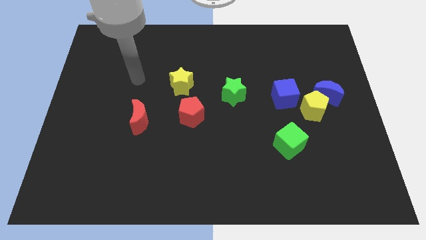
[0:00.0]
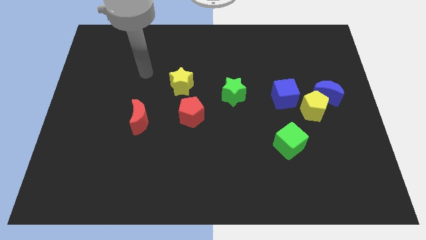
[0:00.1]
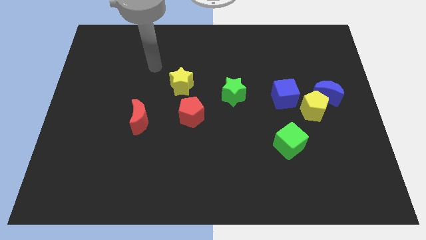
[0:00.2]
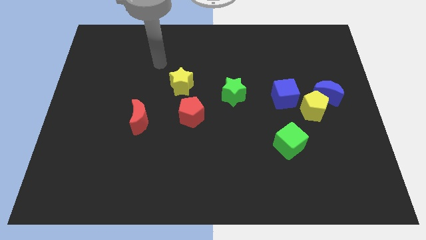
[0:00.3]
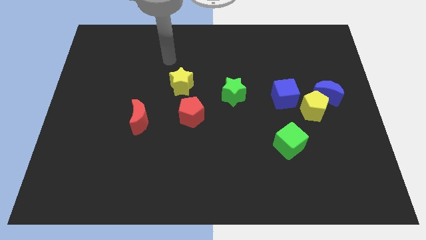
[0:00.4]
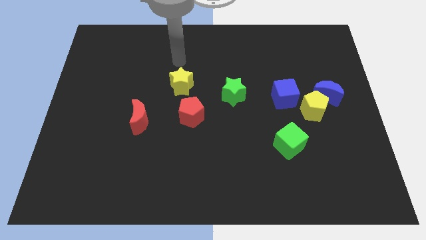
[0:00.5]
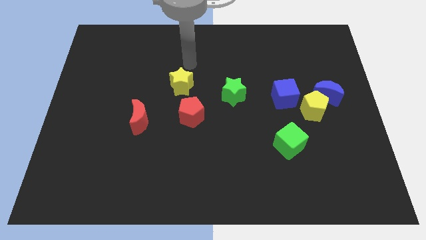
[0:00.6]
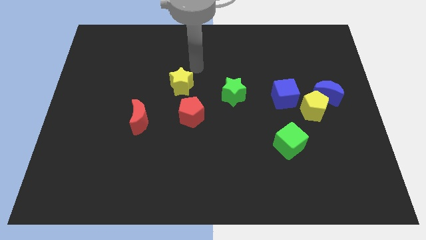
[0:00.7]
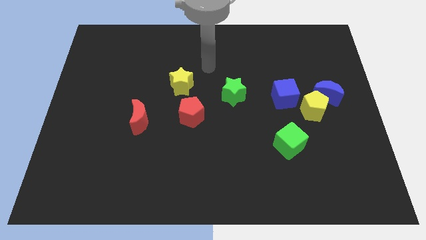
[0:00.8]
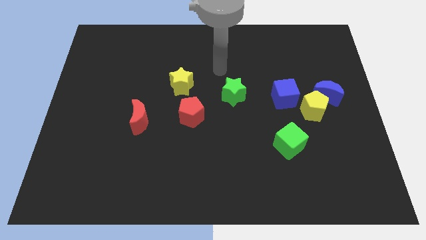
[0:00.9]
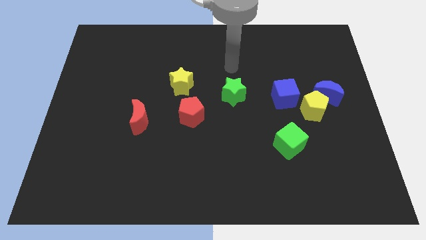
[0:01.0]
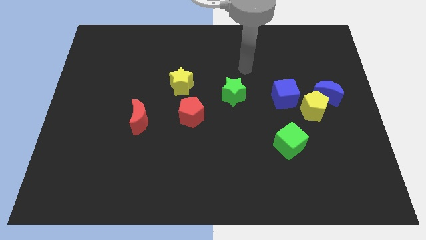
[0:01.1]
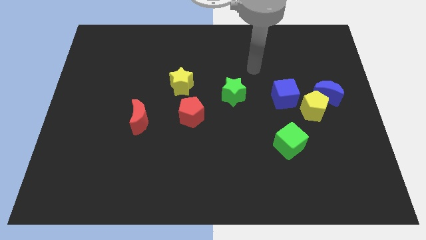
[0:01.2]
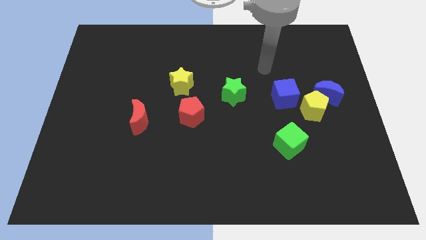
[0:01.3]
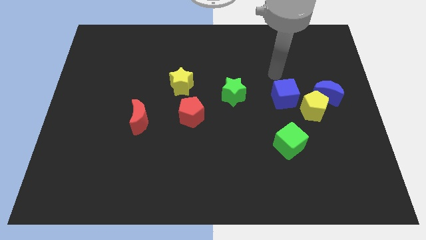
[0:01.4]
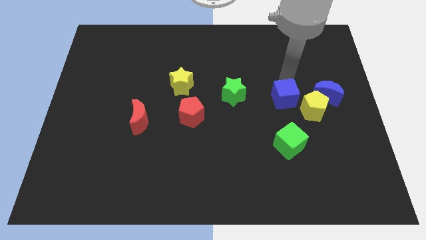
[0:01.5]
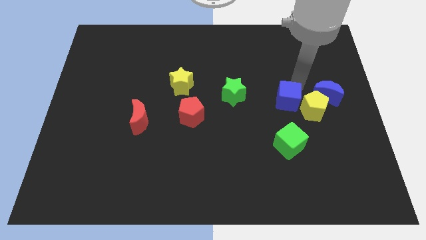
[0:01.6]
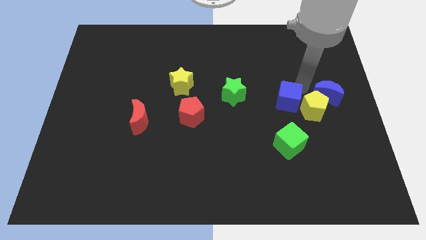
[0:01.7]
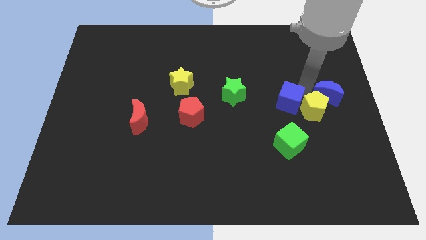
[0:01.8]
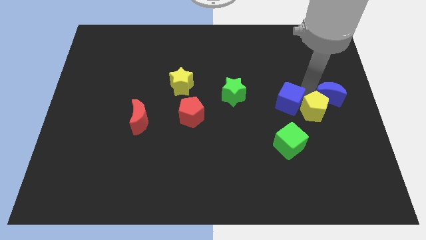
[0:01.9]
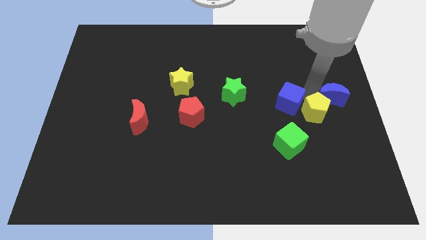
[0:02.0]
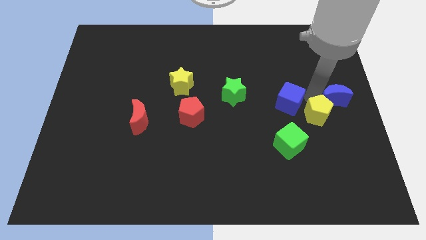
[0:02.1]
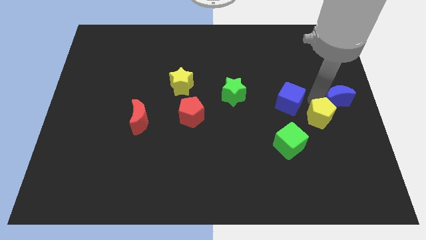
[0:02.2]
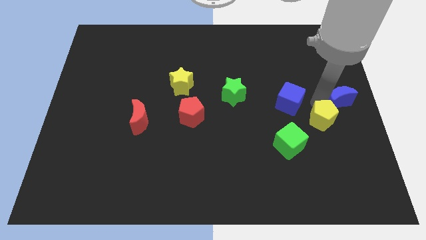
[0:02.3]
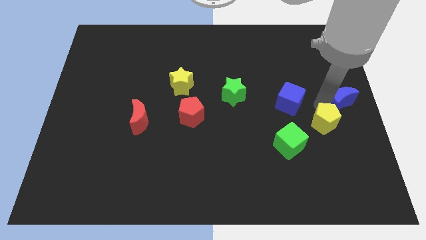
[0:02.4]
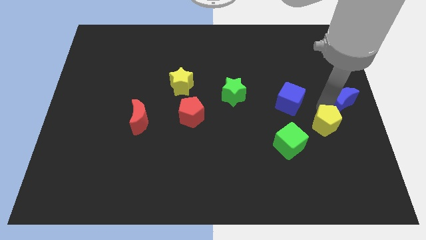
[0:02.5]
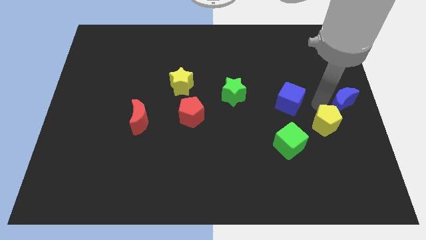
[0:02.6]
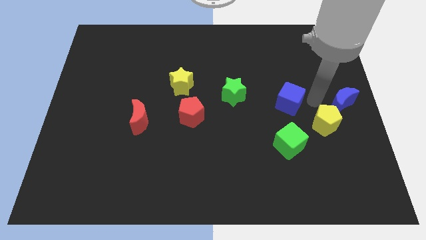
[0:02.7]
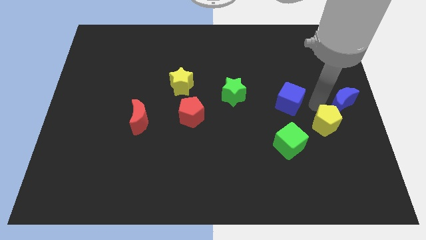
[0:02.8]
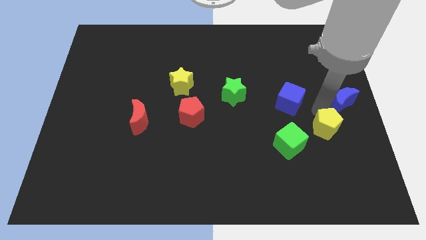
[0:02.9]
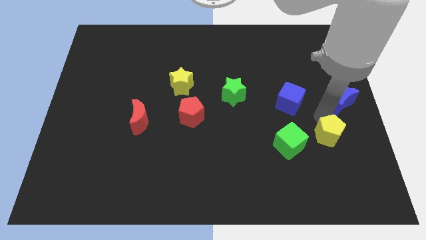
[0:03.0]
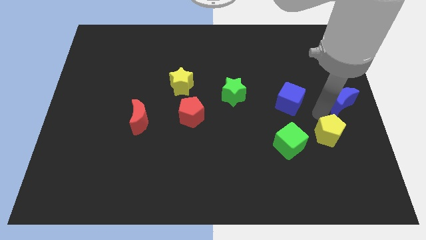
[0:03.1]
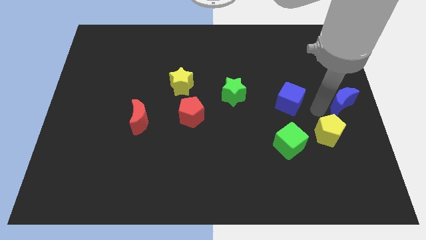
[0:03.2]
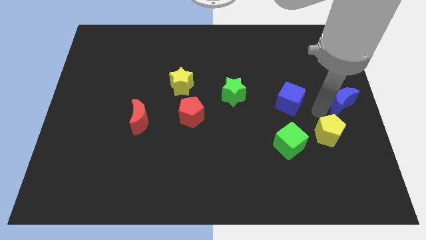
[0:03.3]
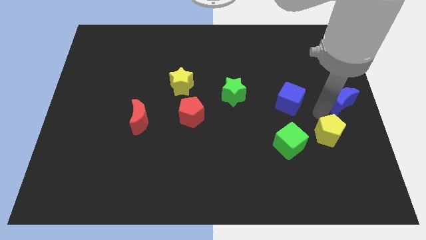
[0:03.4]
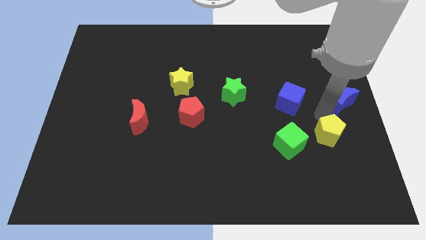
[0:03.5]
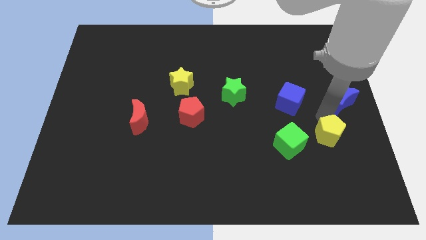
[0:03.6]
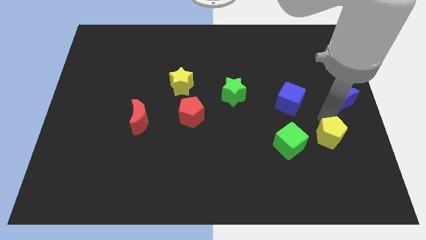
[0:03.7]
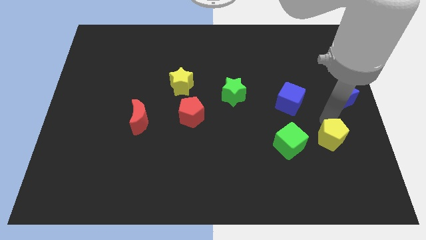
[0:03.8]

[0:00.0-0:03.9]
move the yellow pentagon away from the blue moon and blue cube

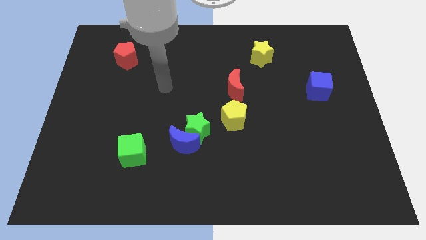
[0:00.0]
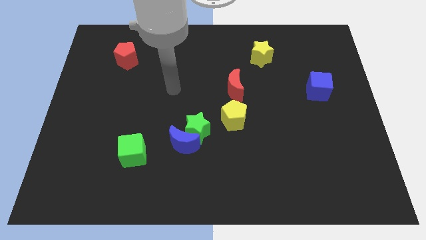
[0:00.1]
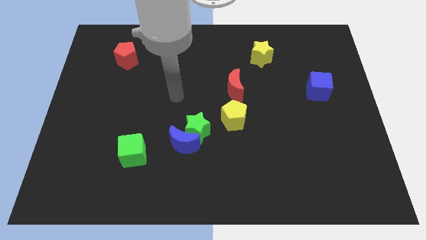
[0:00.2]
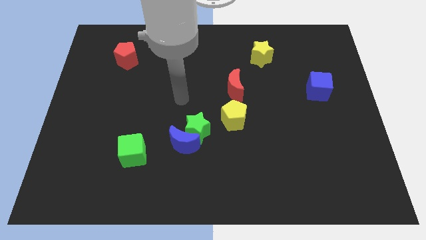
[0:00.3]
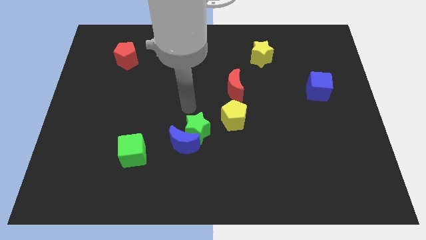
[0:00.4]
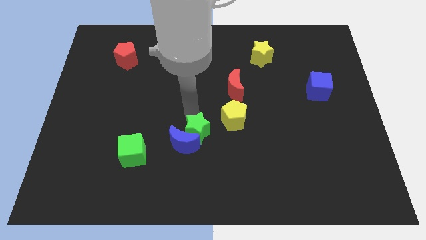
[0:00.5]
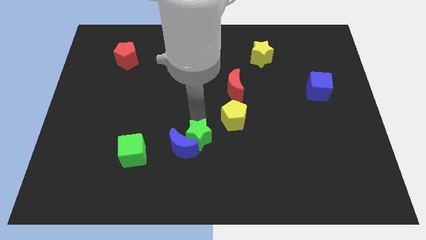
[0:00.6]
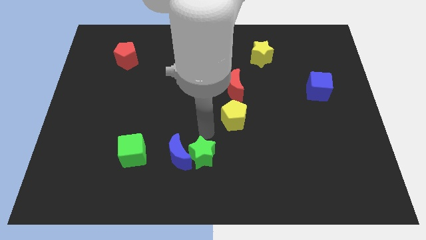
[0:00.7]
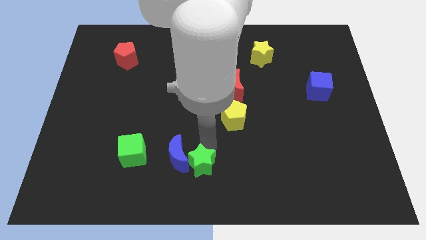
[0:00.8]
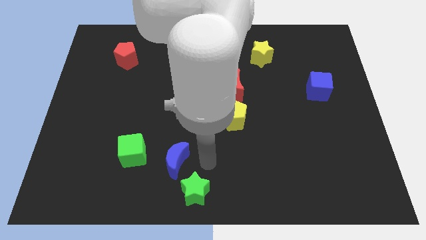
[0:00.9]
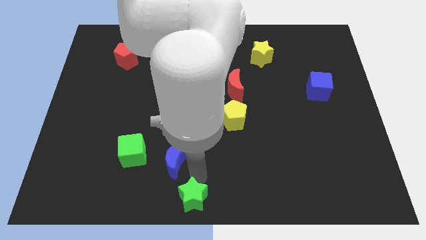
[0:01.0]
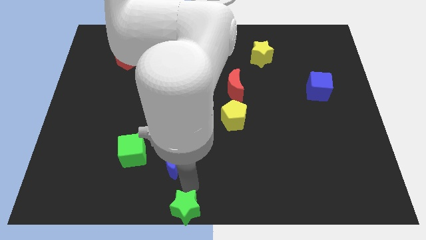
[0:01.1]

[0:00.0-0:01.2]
separate the blue moon from the green star

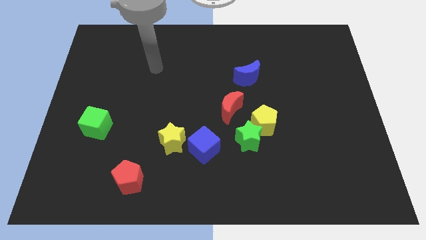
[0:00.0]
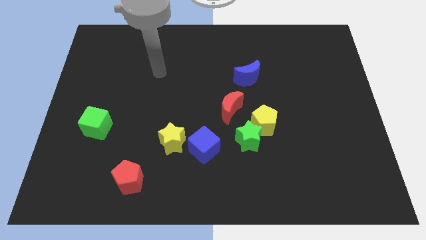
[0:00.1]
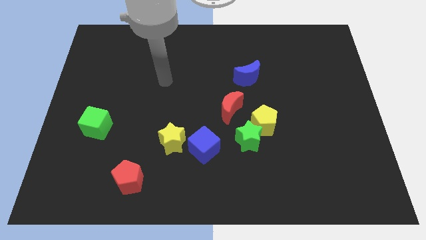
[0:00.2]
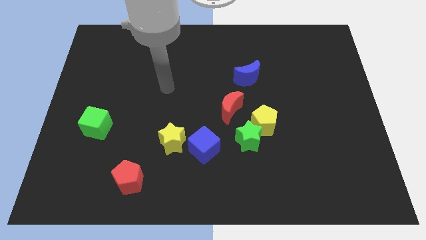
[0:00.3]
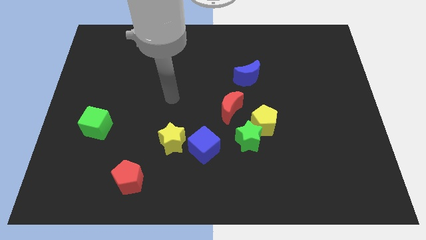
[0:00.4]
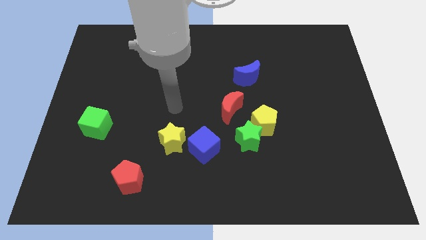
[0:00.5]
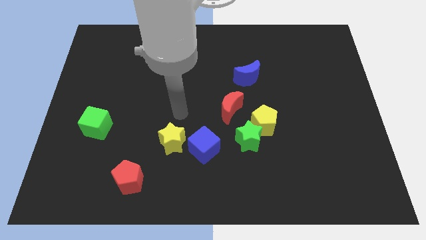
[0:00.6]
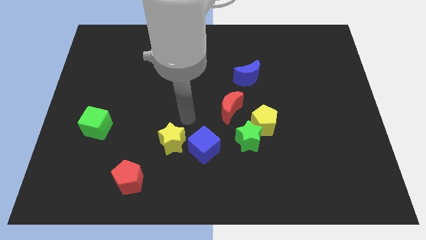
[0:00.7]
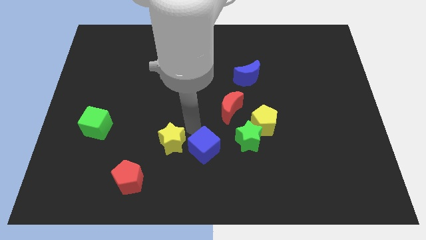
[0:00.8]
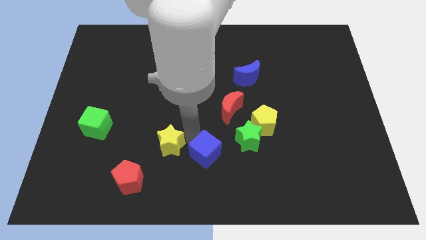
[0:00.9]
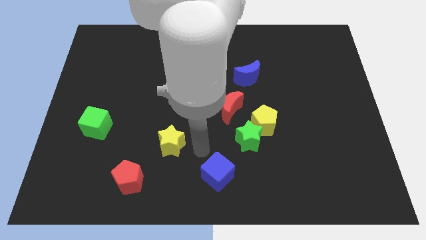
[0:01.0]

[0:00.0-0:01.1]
separate the yellow star from the blue cube

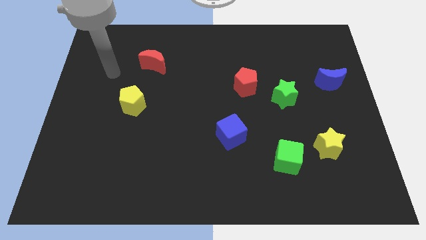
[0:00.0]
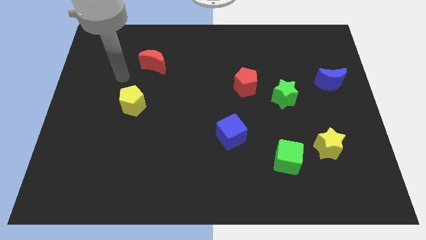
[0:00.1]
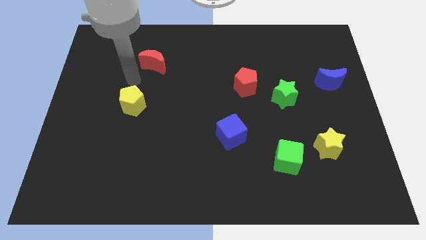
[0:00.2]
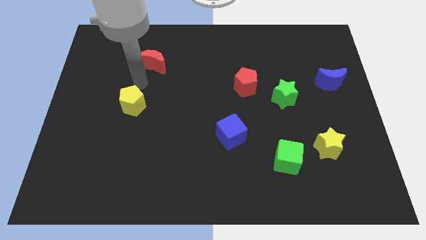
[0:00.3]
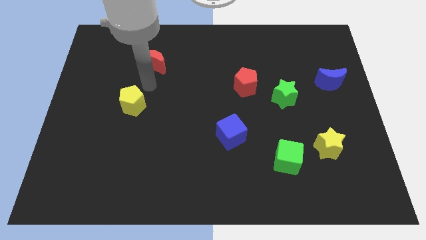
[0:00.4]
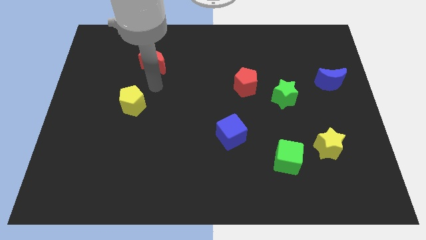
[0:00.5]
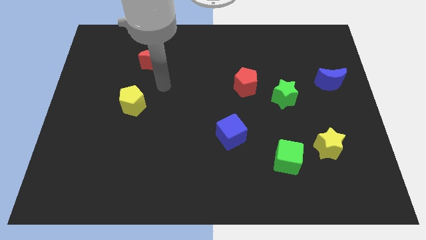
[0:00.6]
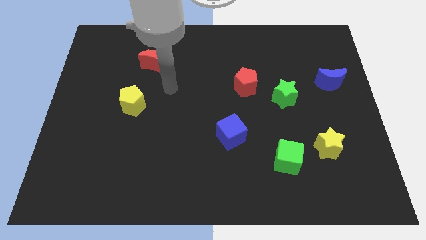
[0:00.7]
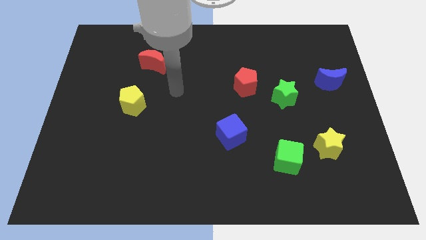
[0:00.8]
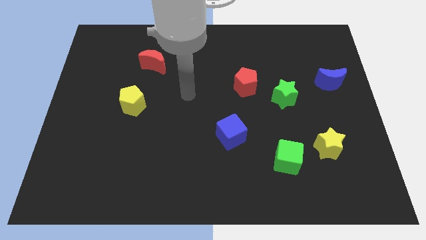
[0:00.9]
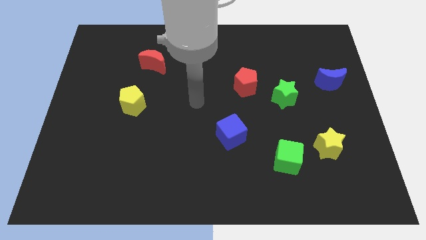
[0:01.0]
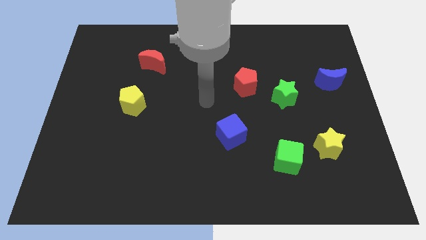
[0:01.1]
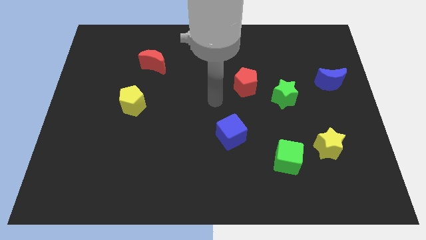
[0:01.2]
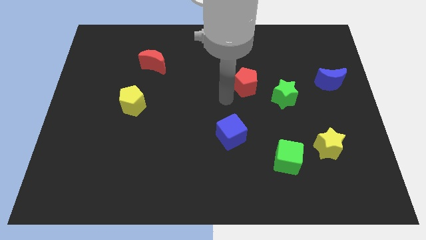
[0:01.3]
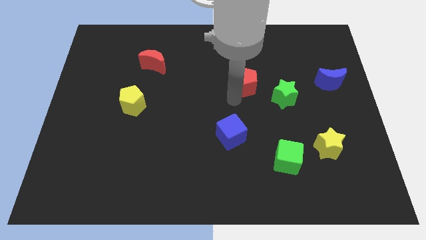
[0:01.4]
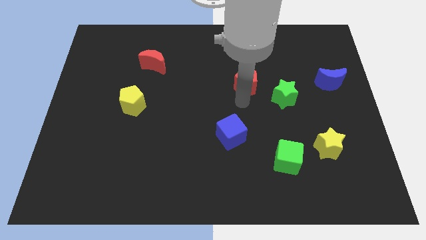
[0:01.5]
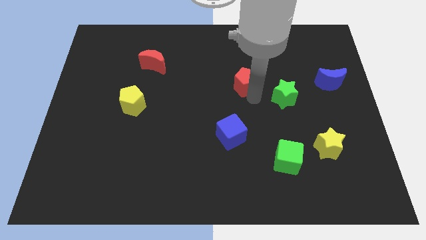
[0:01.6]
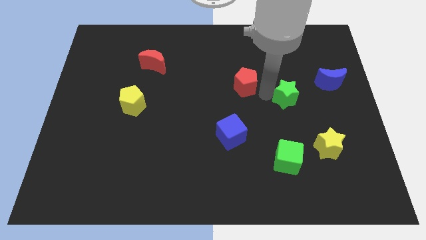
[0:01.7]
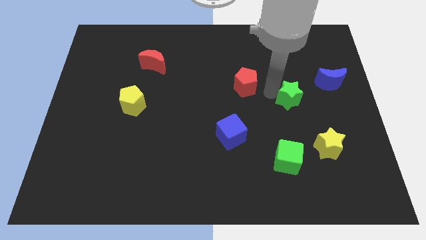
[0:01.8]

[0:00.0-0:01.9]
move the red pentagon away from the green star

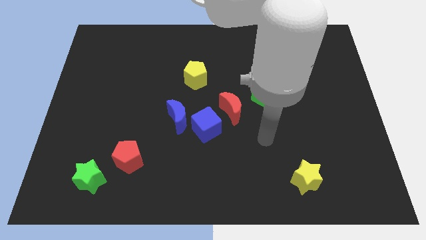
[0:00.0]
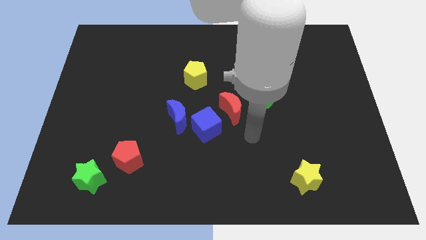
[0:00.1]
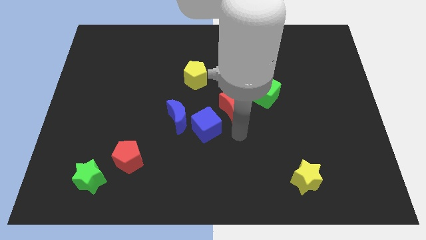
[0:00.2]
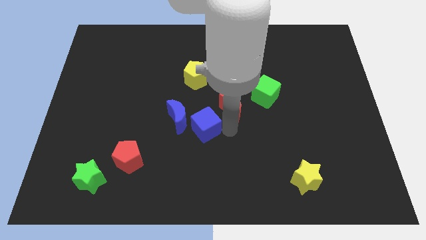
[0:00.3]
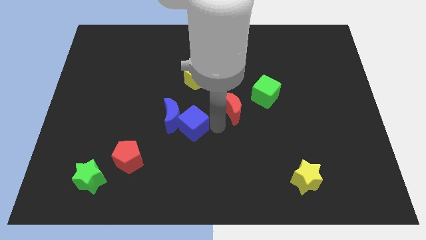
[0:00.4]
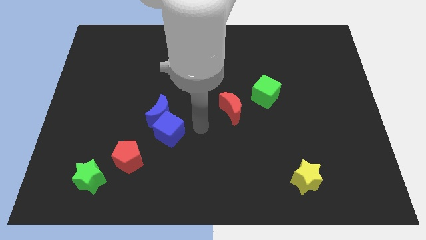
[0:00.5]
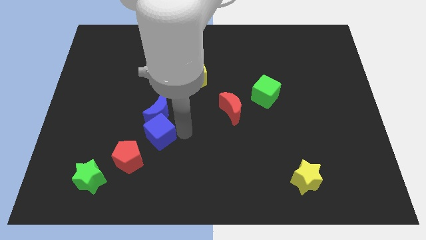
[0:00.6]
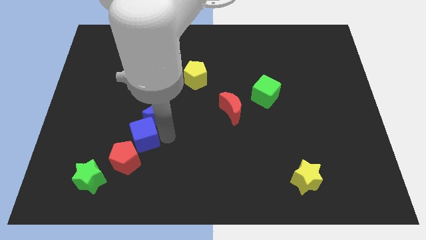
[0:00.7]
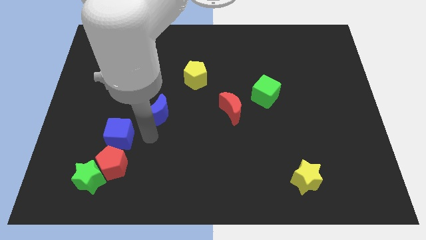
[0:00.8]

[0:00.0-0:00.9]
pull the blue moon apart from the blue cube

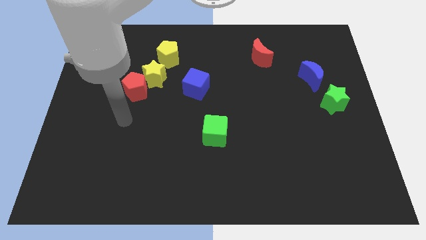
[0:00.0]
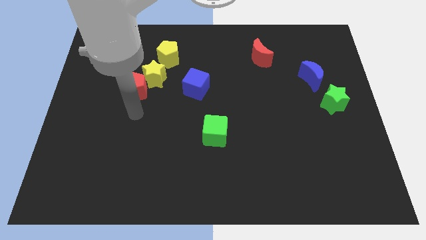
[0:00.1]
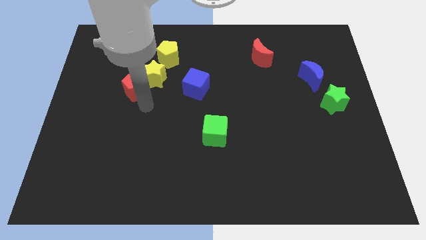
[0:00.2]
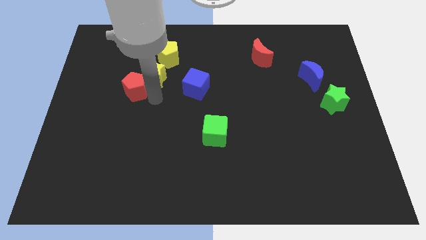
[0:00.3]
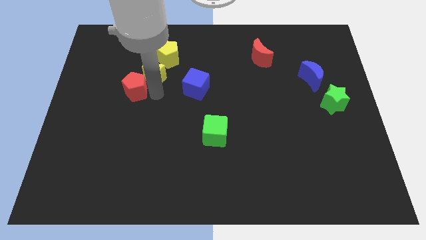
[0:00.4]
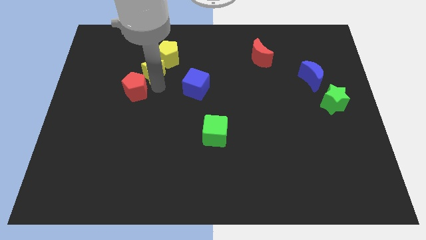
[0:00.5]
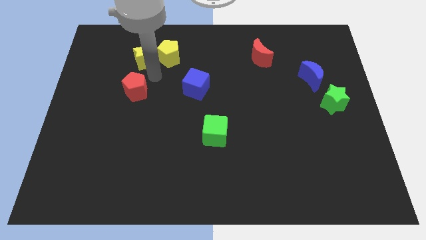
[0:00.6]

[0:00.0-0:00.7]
move the red pentagon away from the yellow star
